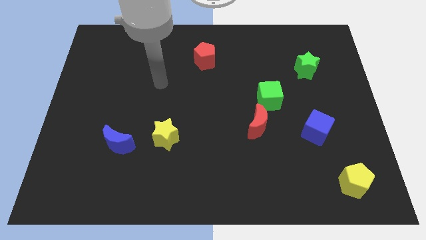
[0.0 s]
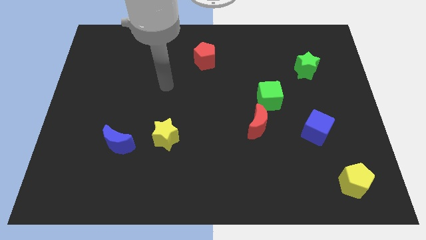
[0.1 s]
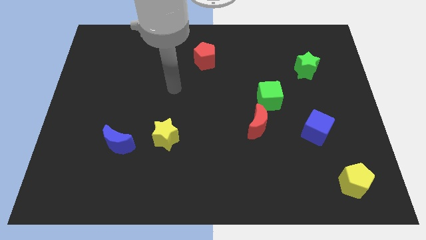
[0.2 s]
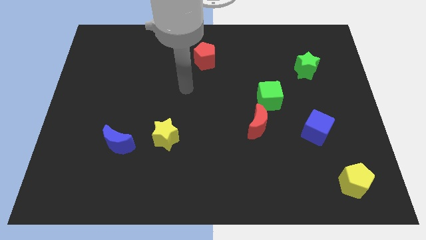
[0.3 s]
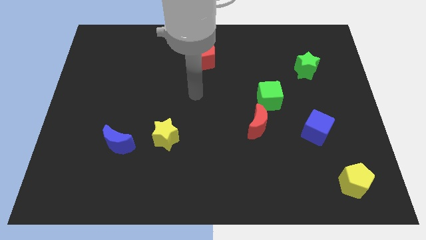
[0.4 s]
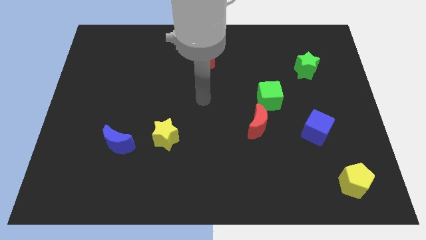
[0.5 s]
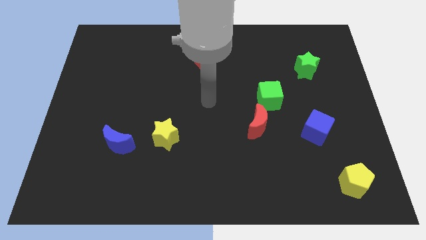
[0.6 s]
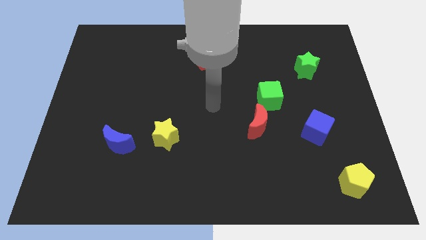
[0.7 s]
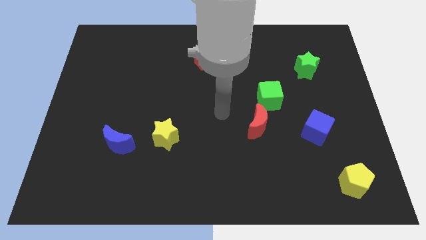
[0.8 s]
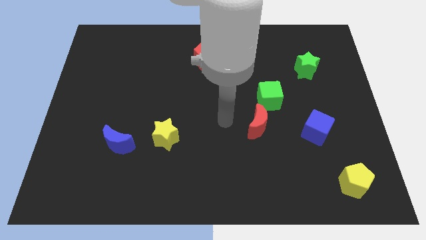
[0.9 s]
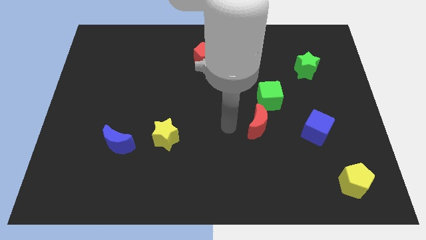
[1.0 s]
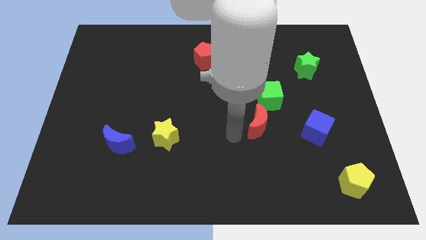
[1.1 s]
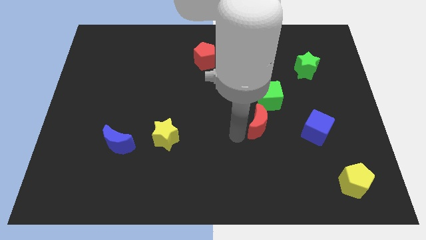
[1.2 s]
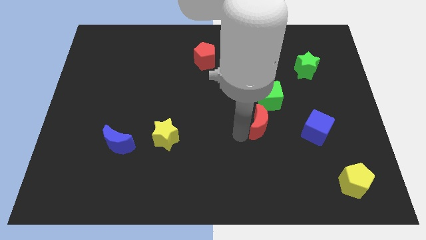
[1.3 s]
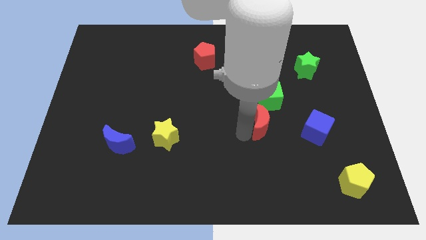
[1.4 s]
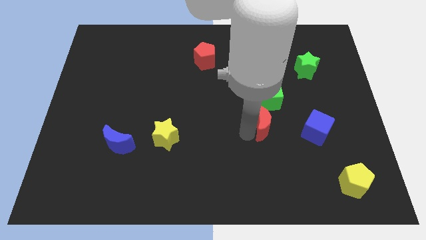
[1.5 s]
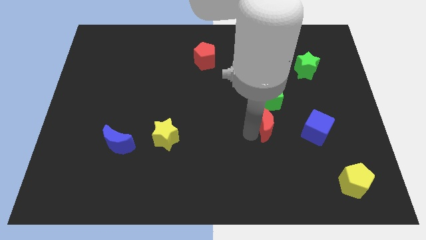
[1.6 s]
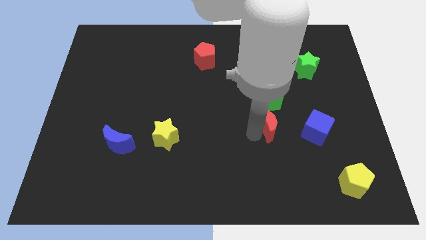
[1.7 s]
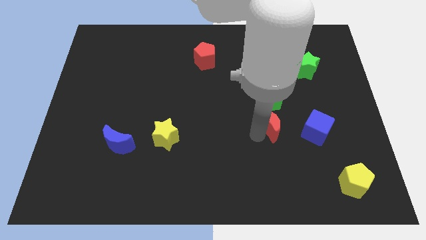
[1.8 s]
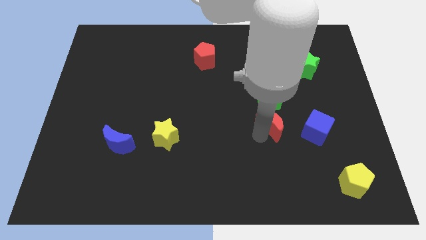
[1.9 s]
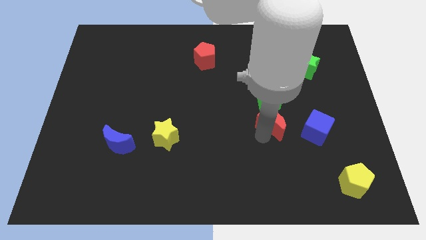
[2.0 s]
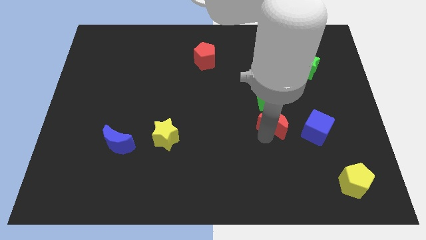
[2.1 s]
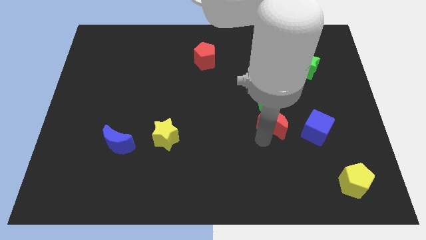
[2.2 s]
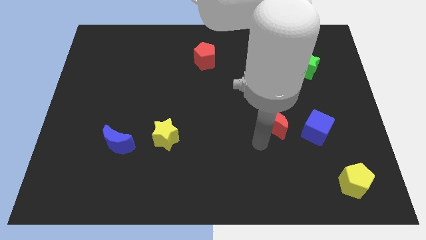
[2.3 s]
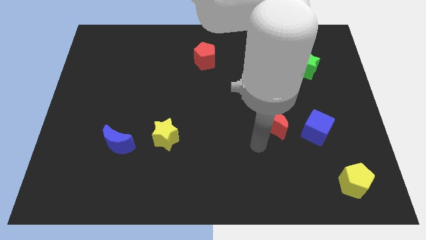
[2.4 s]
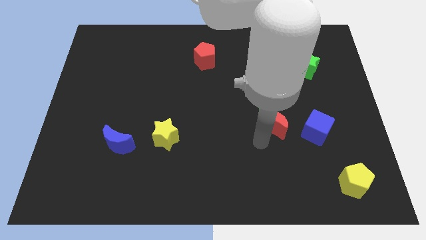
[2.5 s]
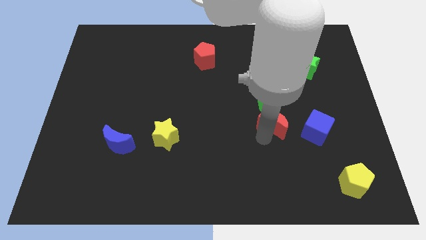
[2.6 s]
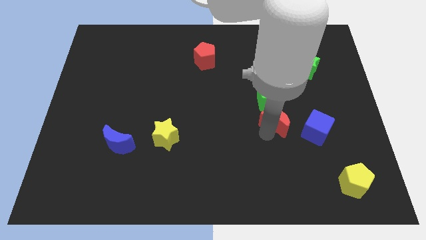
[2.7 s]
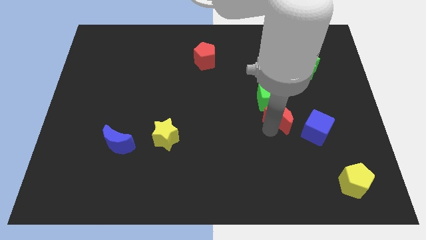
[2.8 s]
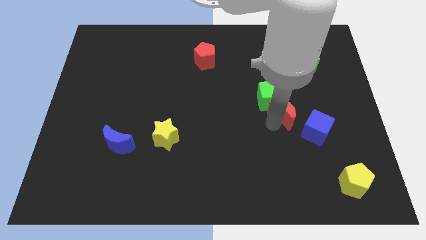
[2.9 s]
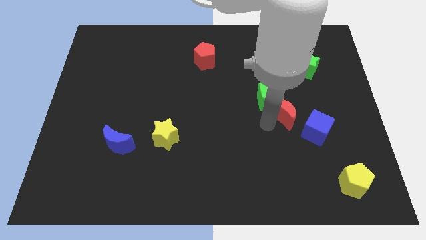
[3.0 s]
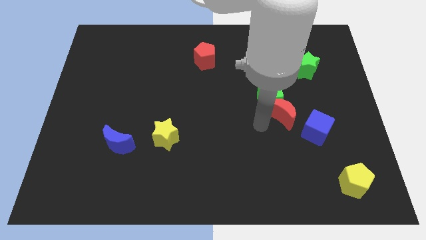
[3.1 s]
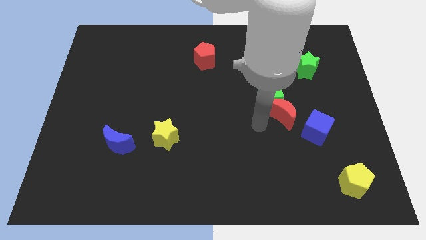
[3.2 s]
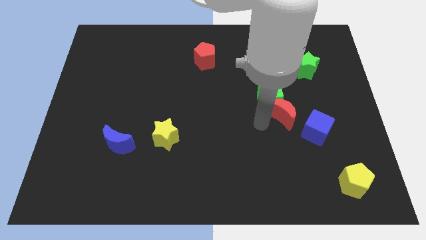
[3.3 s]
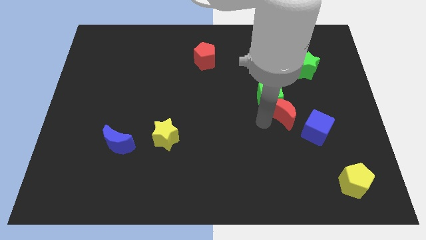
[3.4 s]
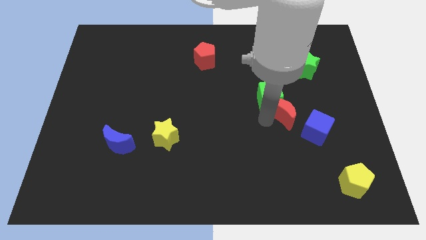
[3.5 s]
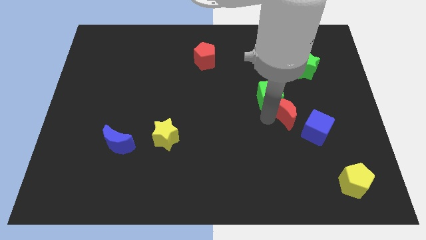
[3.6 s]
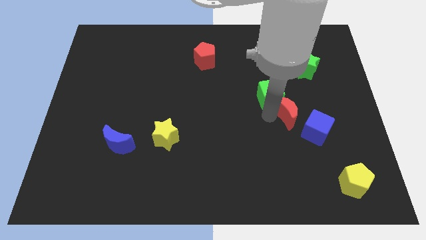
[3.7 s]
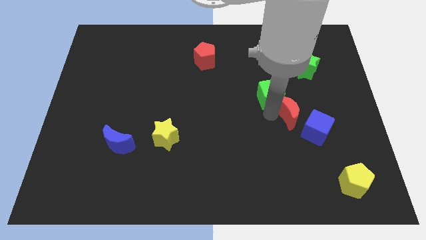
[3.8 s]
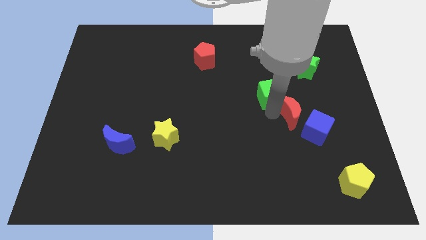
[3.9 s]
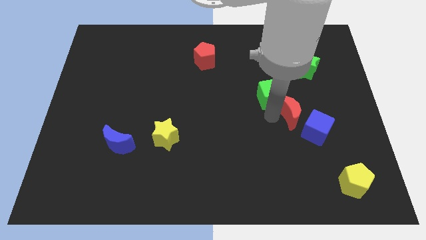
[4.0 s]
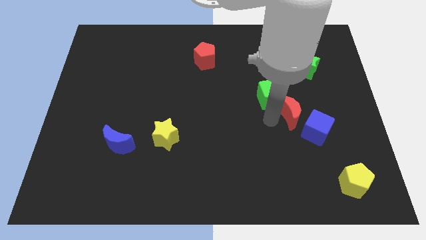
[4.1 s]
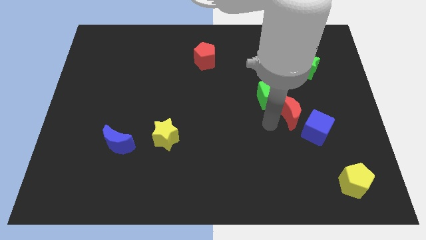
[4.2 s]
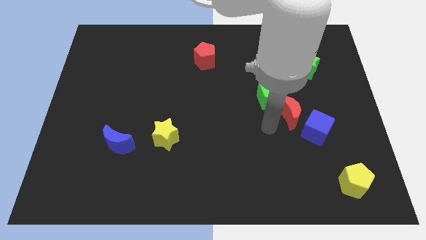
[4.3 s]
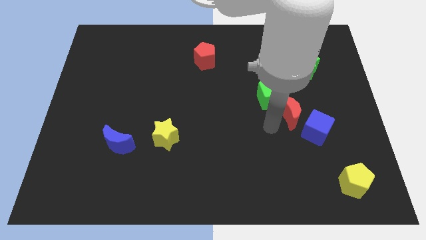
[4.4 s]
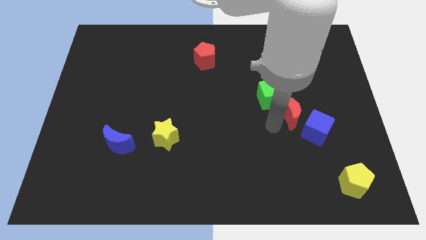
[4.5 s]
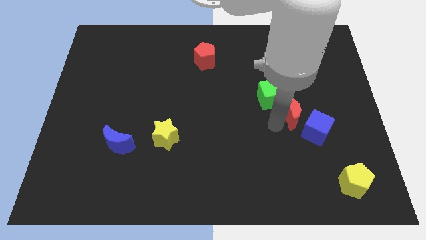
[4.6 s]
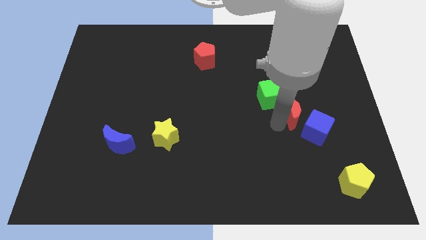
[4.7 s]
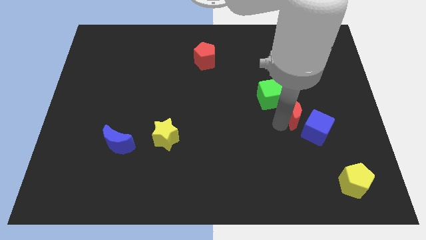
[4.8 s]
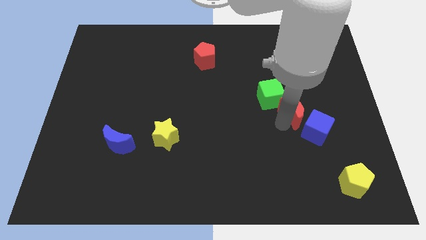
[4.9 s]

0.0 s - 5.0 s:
slide the red moon to the right of the green cube

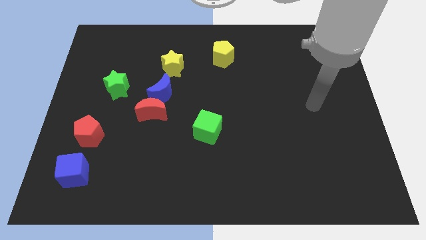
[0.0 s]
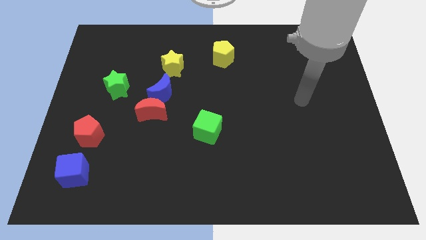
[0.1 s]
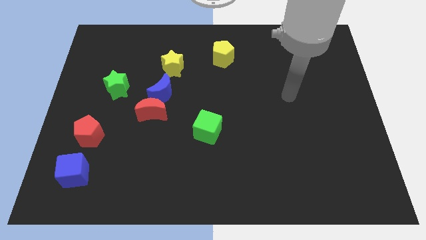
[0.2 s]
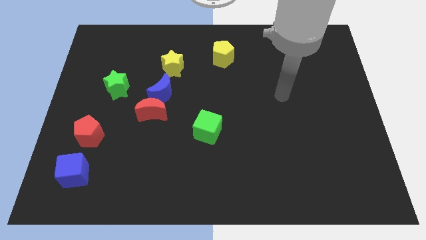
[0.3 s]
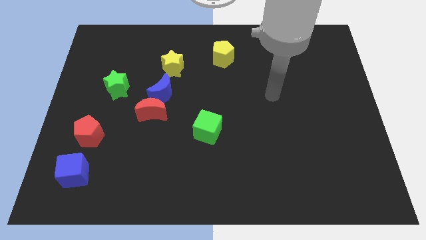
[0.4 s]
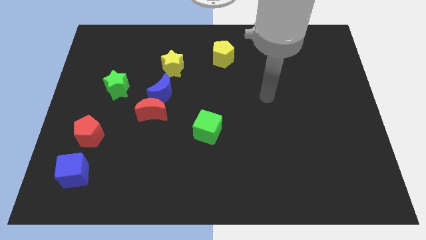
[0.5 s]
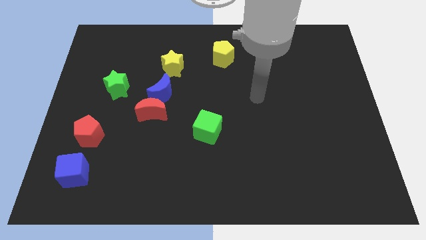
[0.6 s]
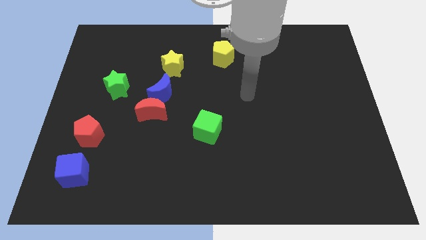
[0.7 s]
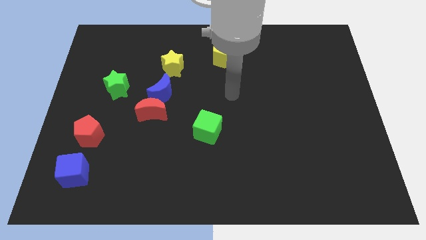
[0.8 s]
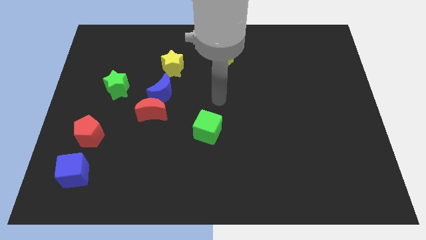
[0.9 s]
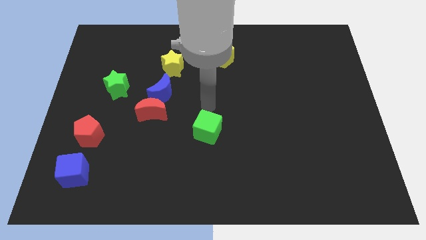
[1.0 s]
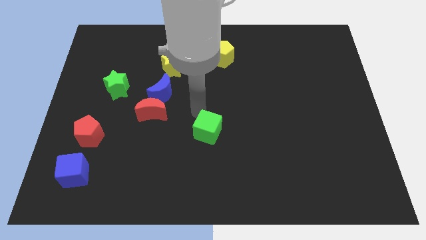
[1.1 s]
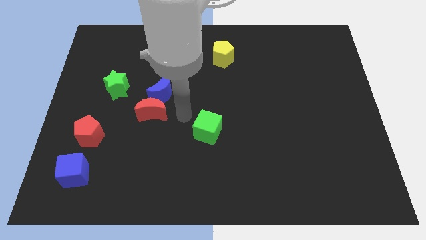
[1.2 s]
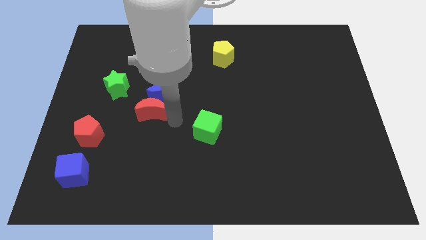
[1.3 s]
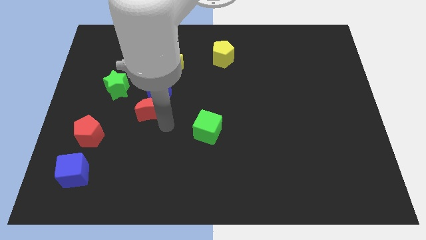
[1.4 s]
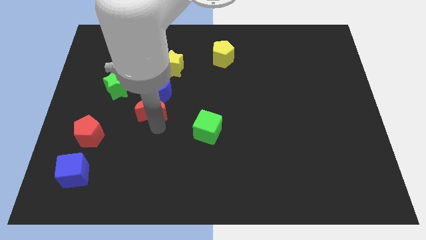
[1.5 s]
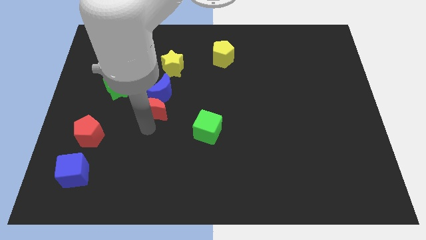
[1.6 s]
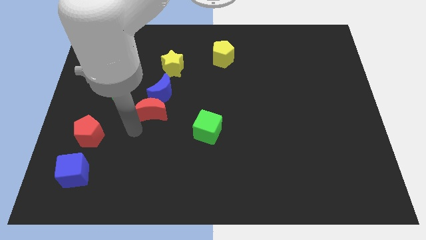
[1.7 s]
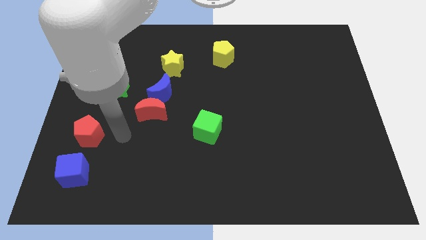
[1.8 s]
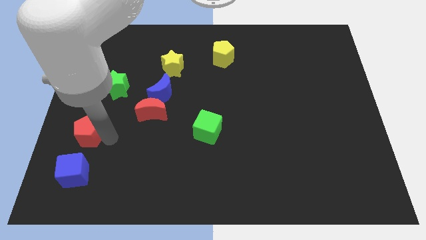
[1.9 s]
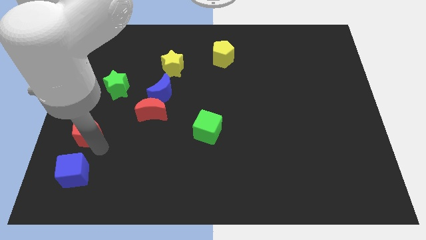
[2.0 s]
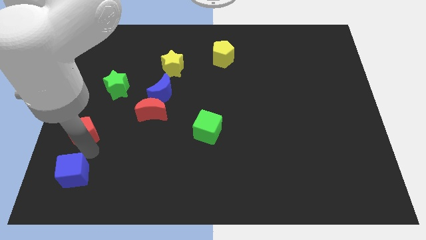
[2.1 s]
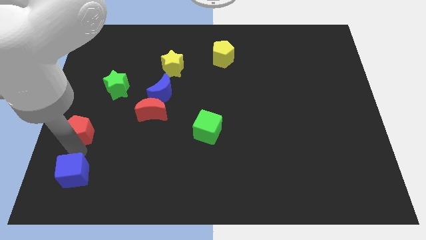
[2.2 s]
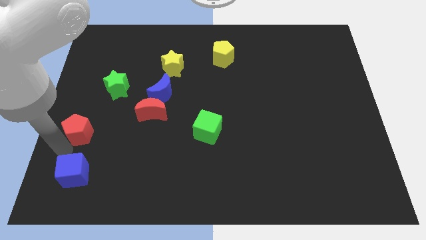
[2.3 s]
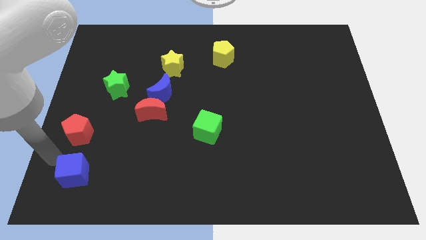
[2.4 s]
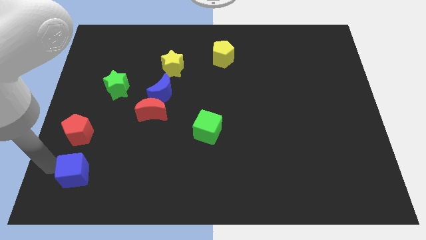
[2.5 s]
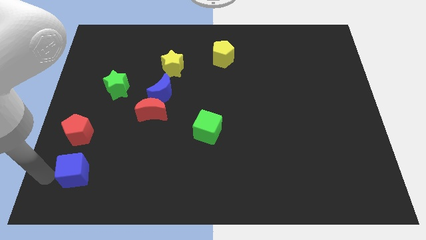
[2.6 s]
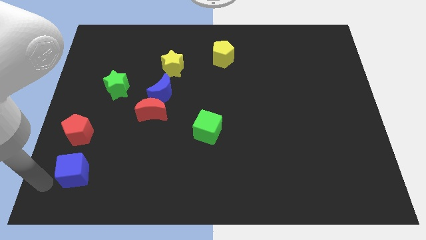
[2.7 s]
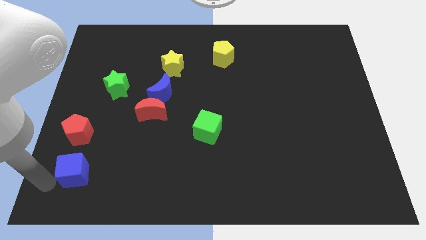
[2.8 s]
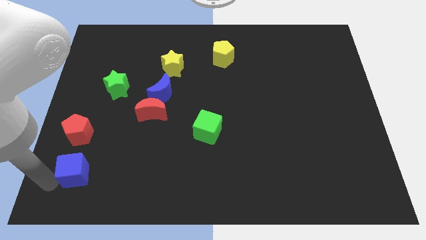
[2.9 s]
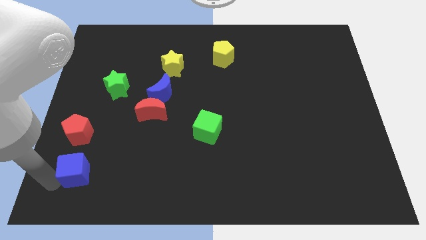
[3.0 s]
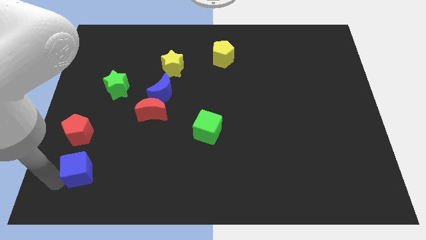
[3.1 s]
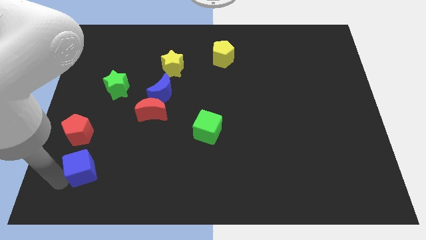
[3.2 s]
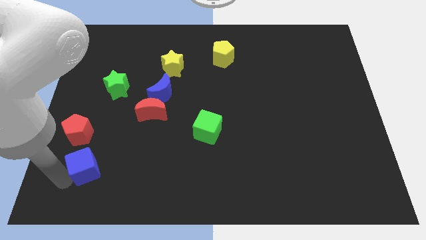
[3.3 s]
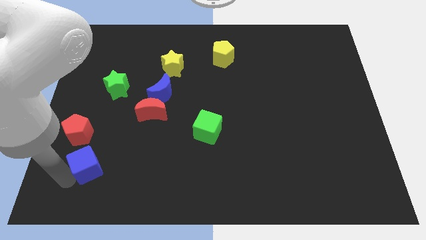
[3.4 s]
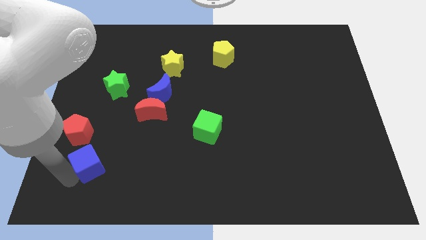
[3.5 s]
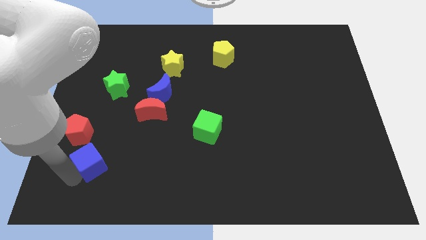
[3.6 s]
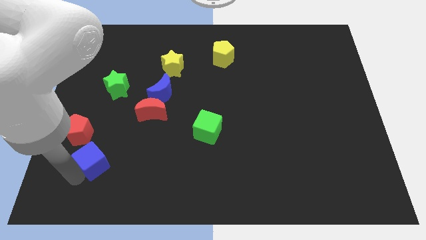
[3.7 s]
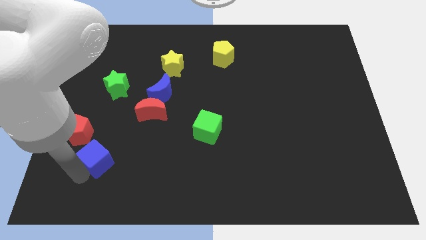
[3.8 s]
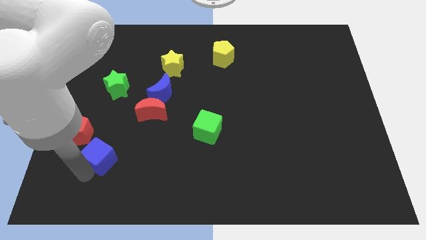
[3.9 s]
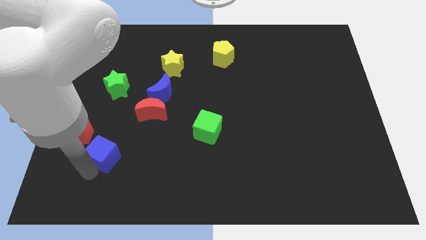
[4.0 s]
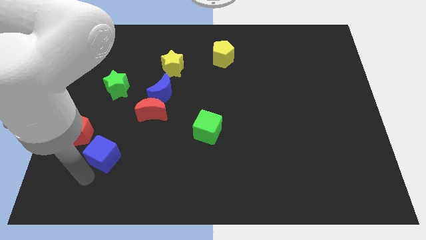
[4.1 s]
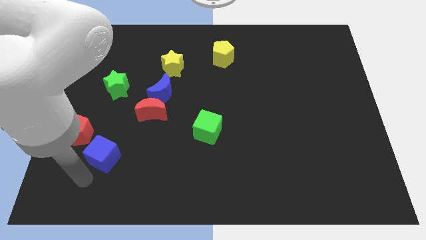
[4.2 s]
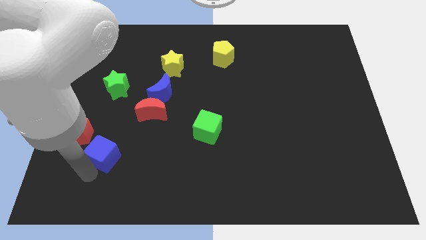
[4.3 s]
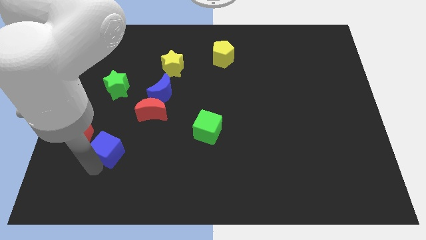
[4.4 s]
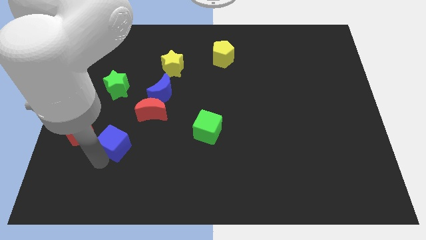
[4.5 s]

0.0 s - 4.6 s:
push the blue cube to the bottom left side of the red moon
